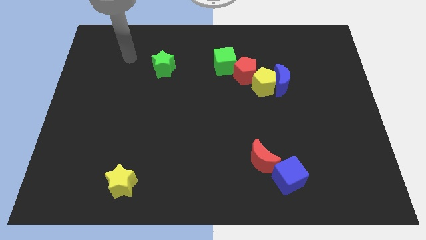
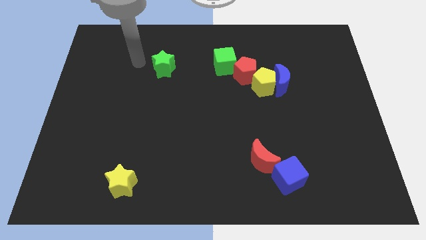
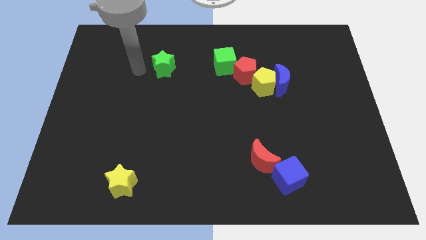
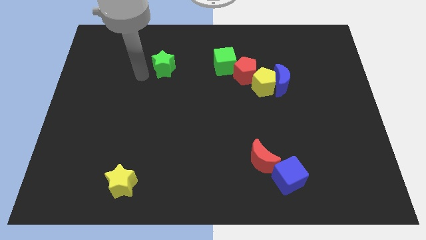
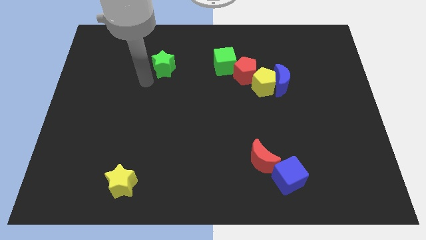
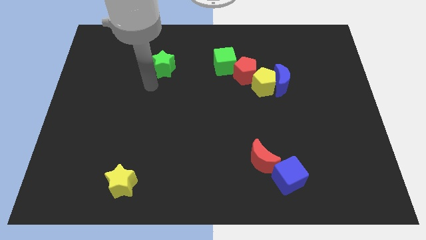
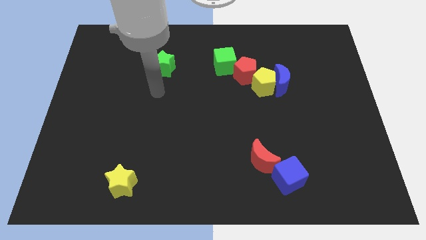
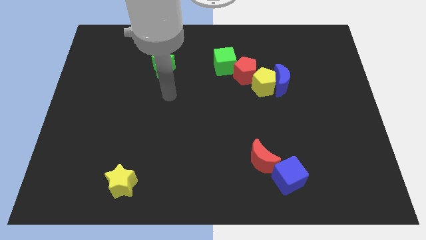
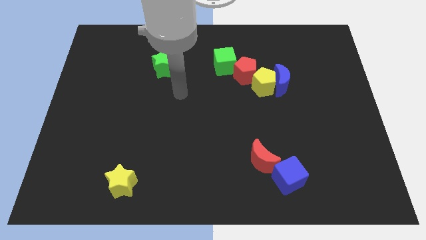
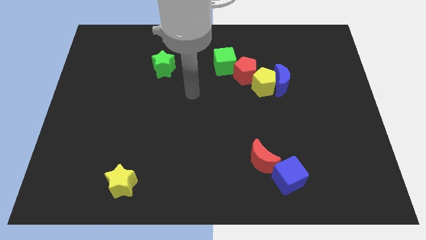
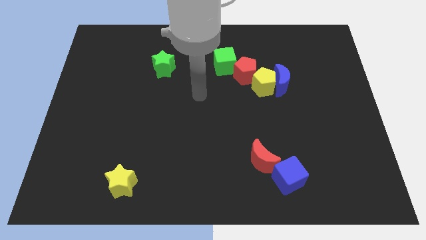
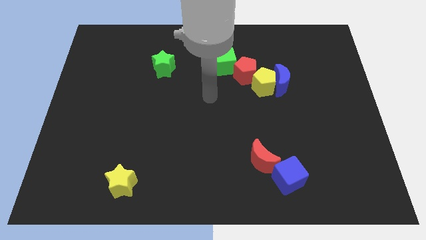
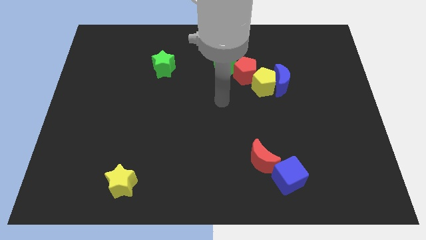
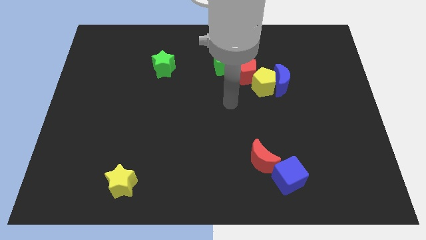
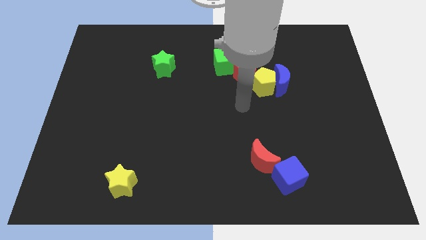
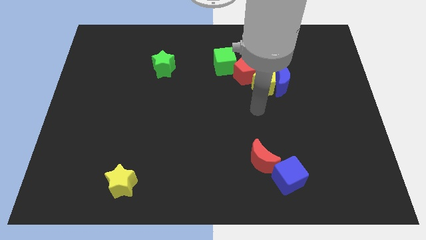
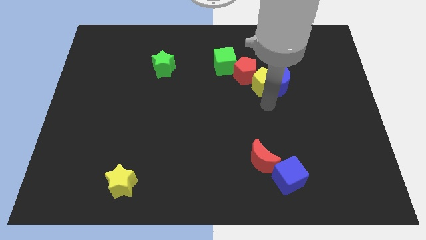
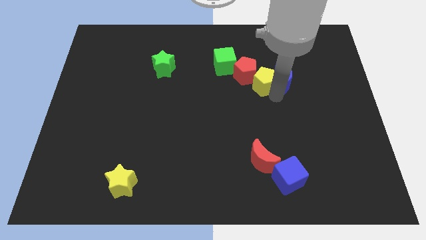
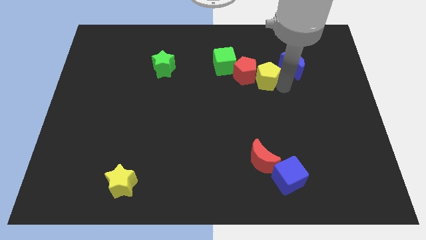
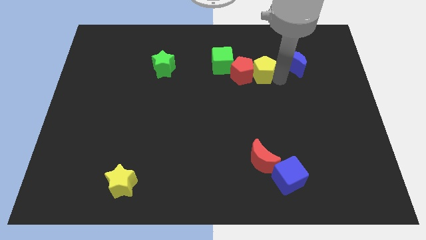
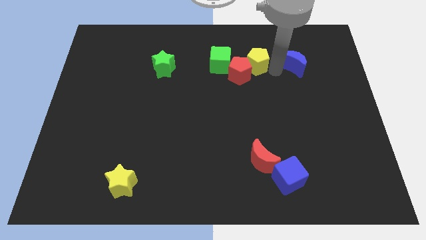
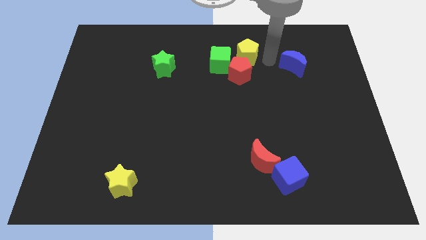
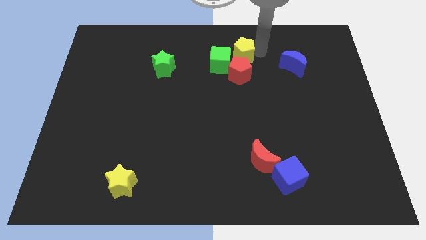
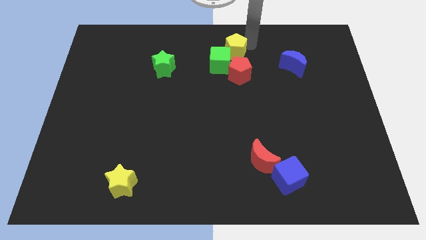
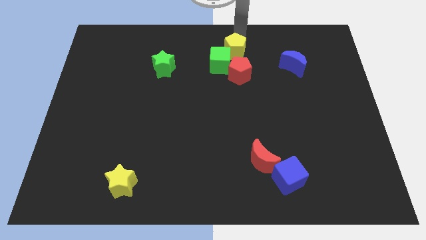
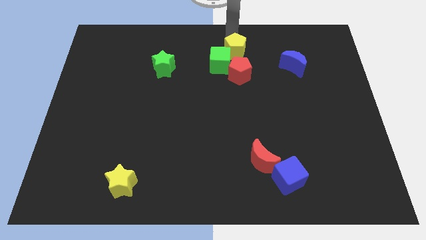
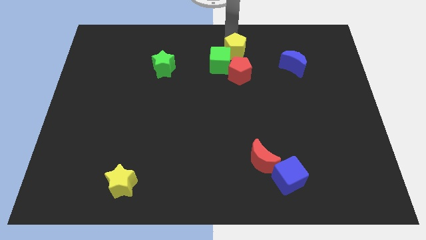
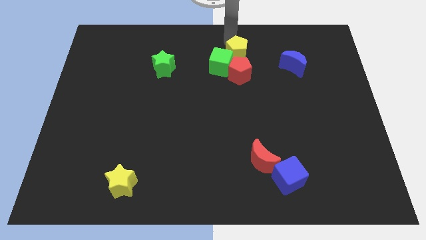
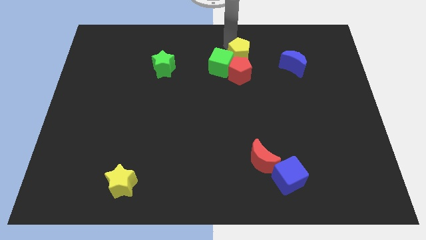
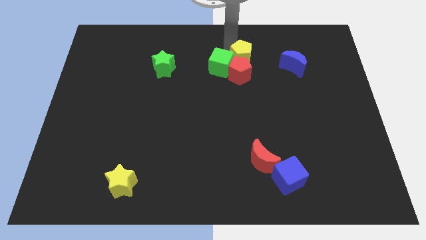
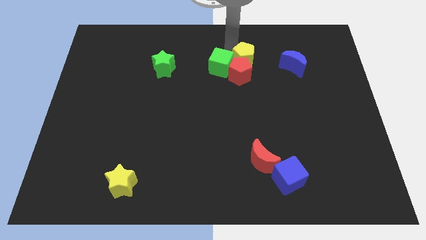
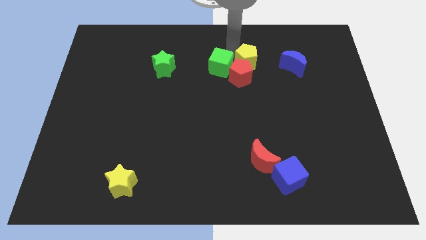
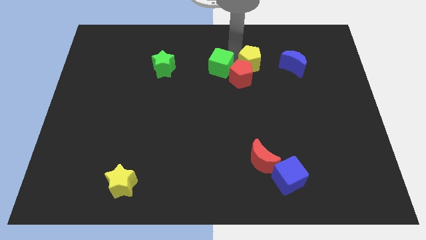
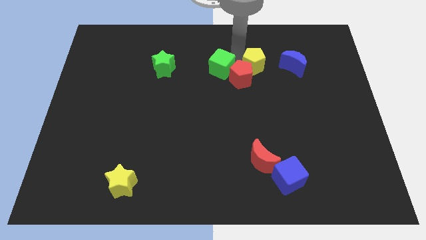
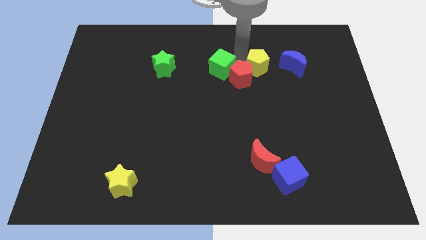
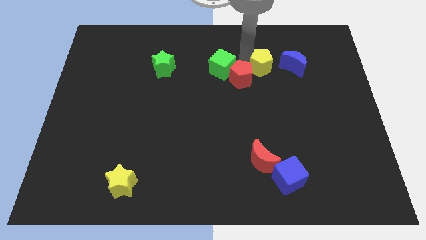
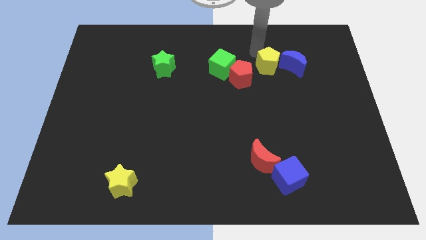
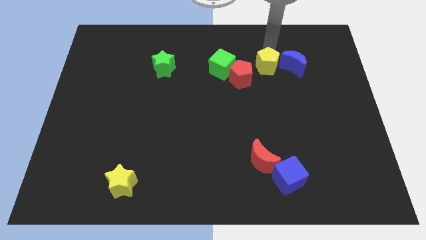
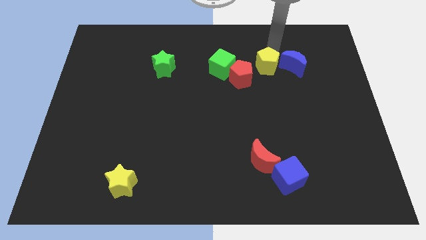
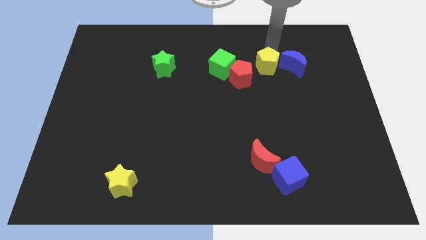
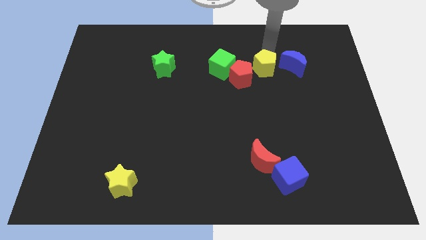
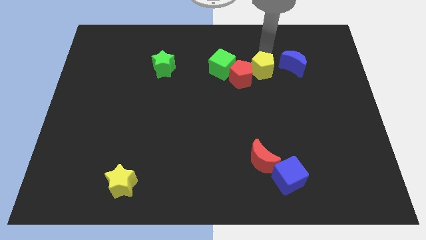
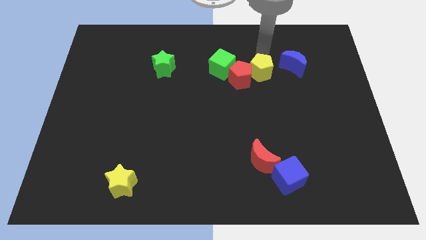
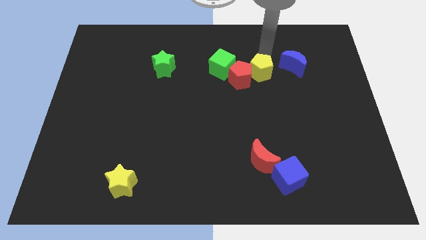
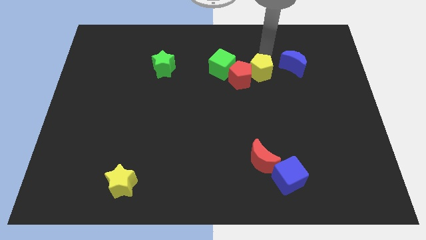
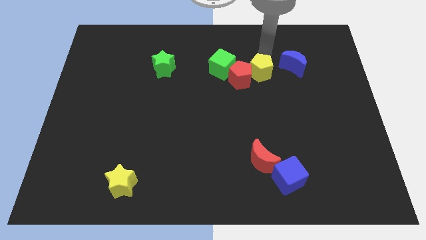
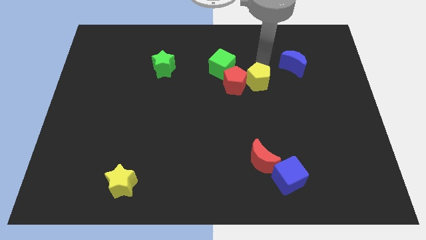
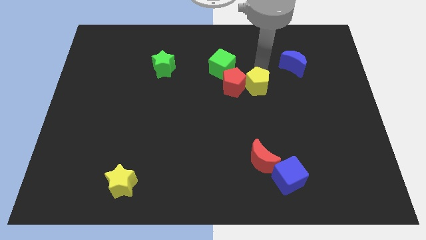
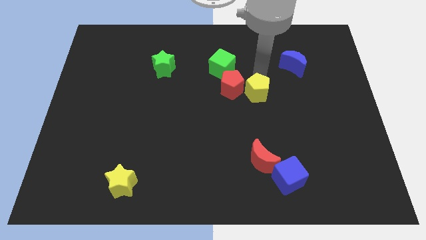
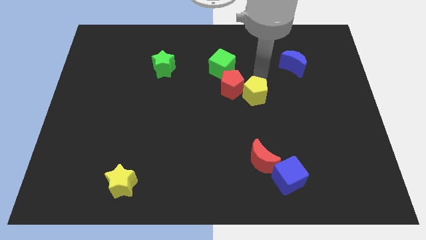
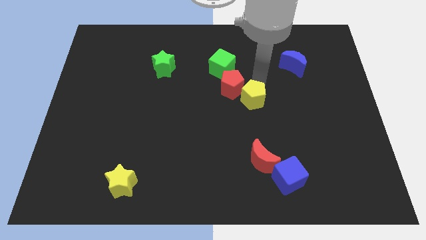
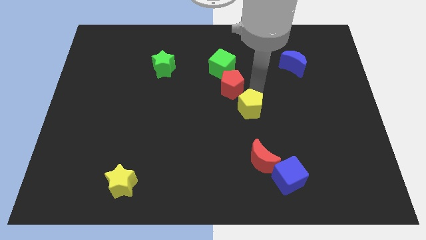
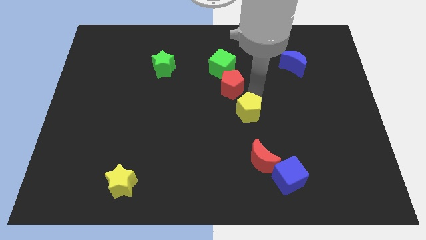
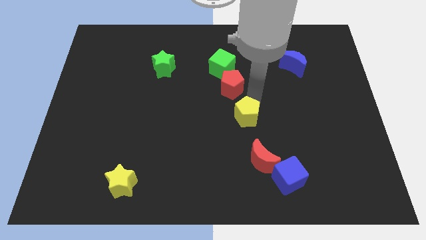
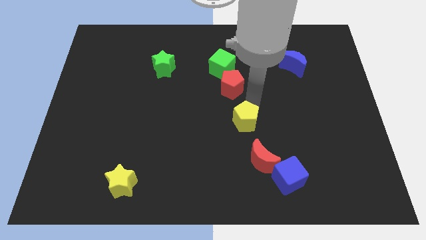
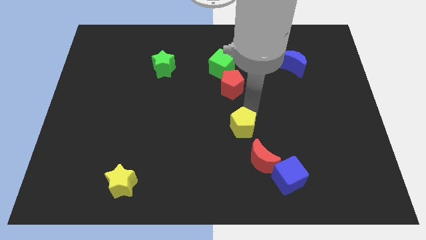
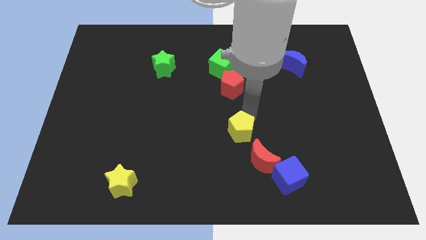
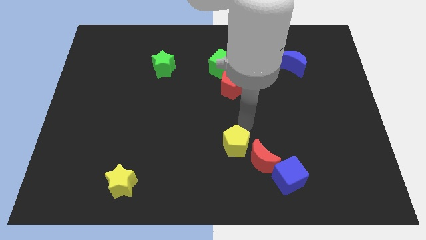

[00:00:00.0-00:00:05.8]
put the yellow pentagon to the left of the red moon

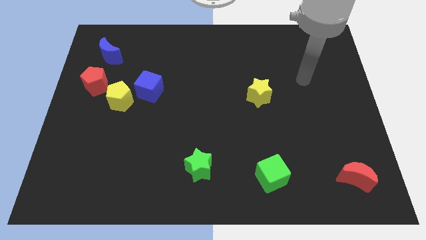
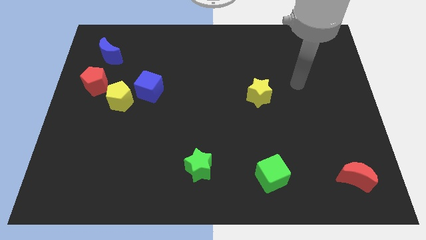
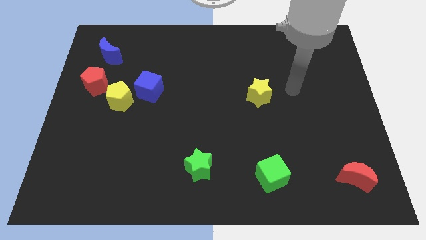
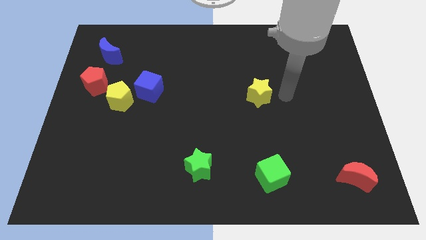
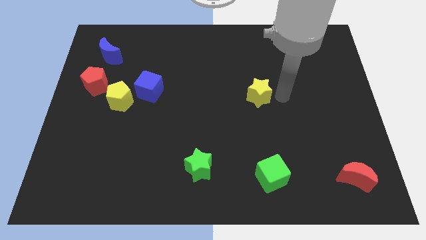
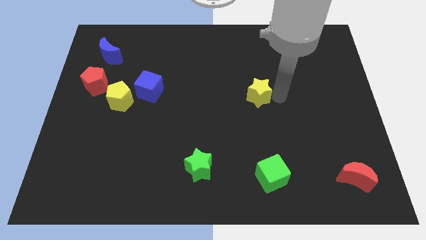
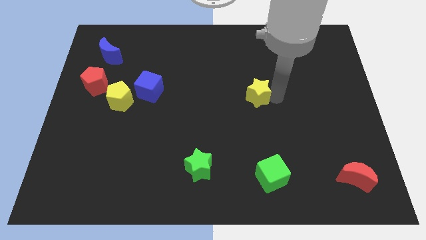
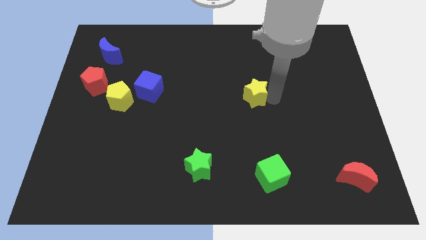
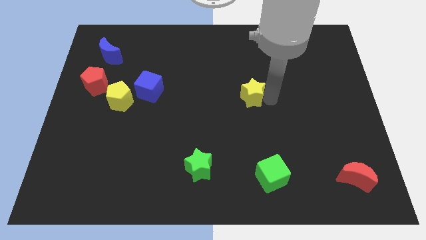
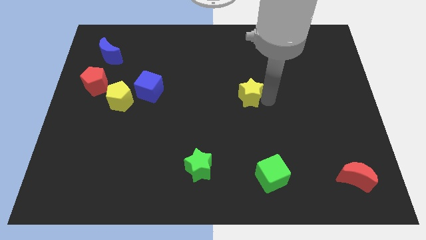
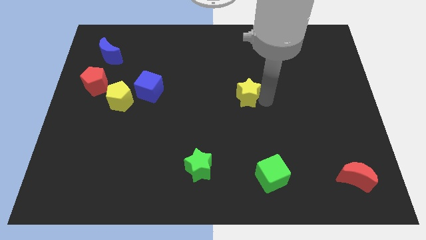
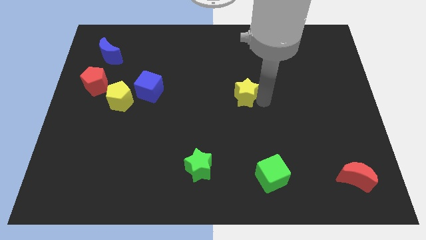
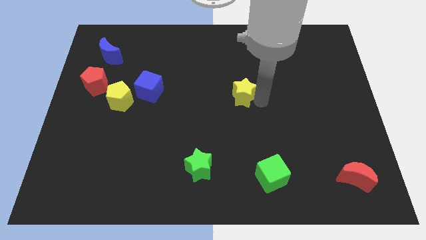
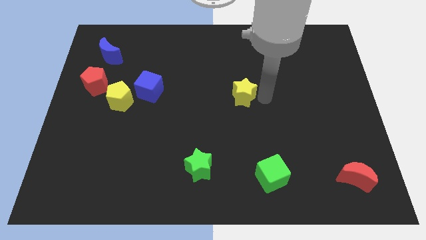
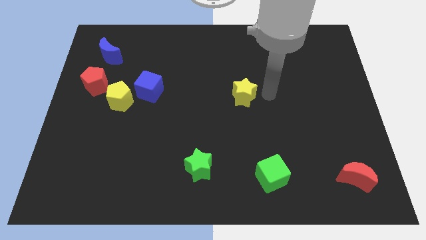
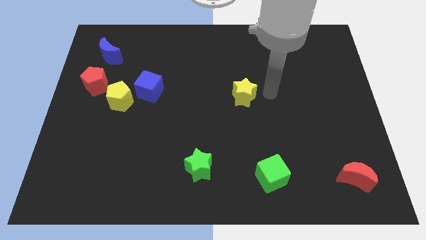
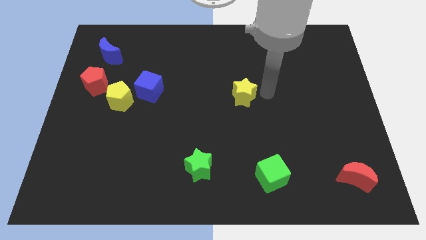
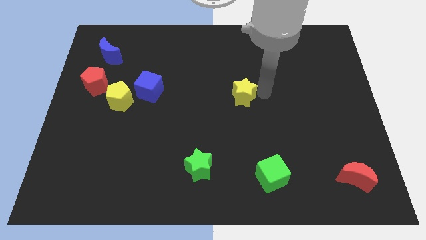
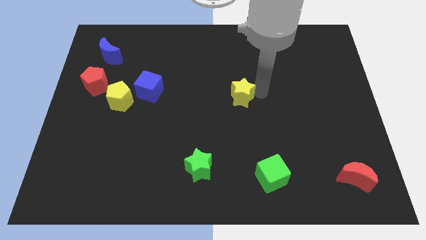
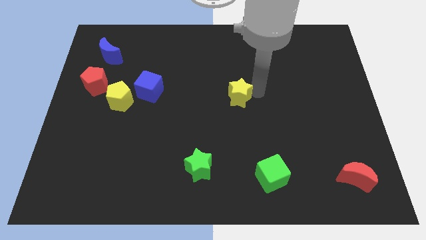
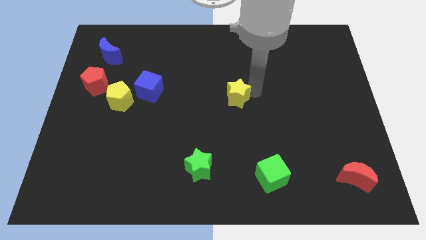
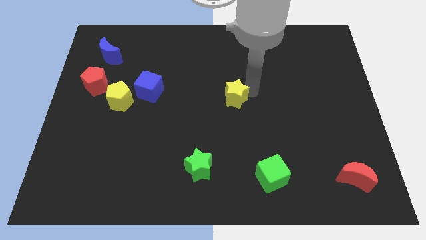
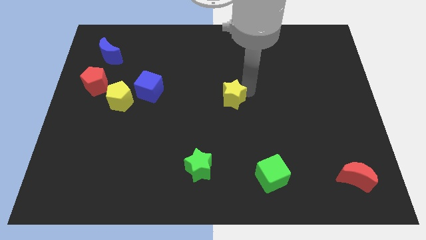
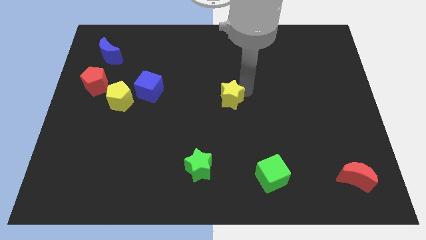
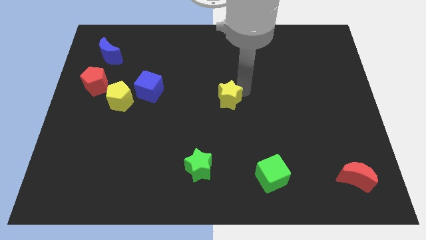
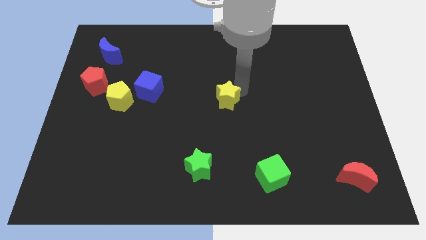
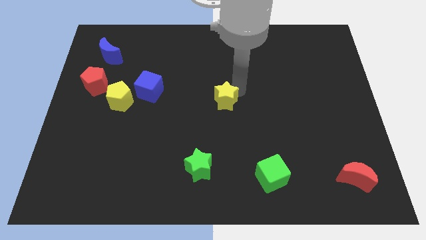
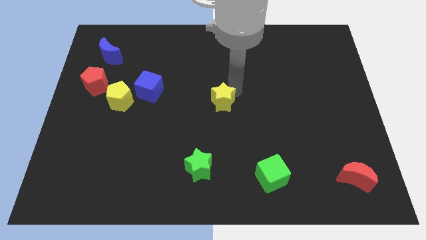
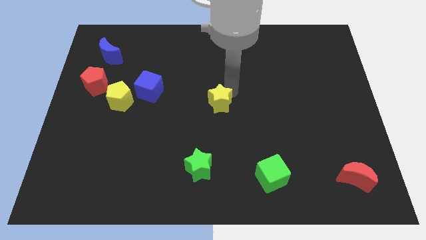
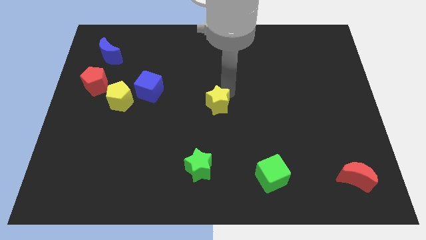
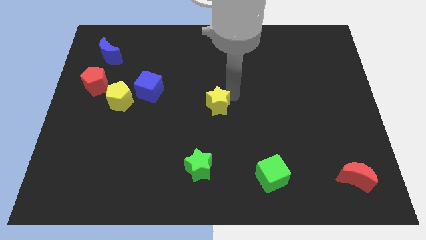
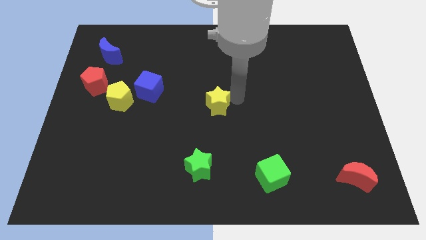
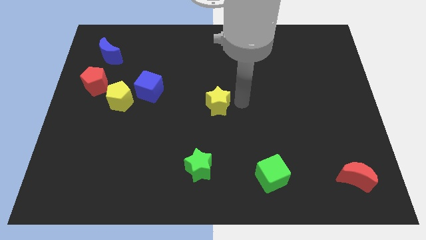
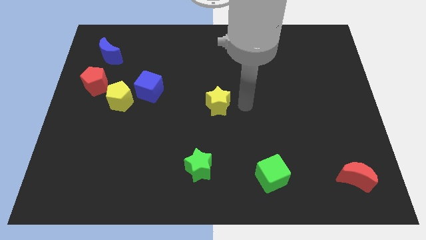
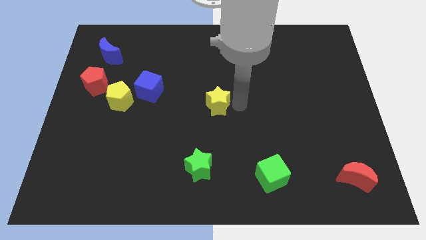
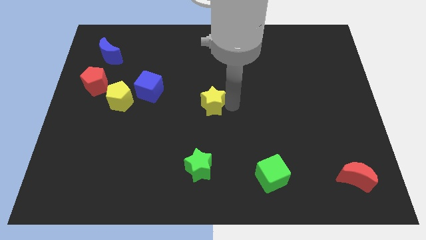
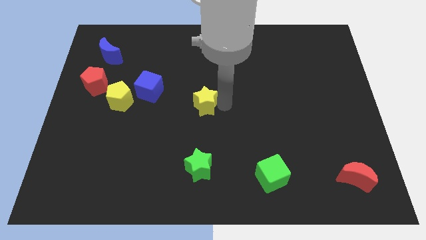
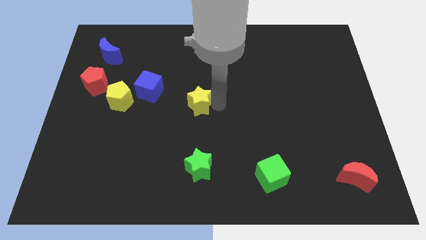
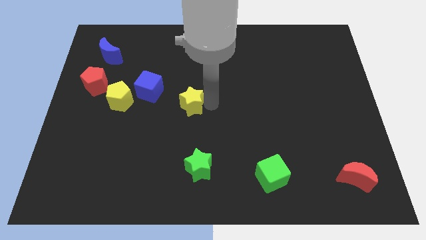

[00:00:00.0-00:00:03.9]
put the yellow star diagonally down and to the right of the blue cube
